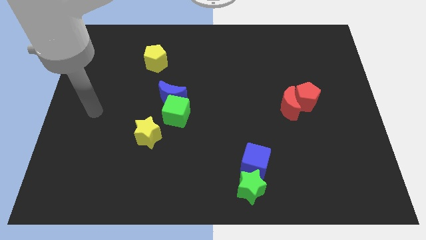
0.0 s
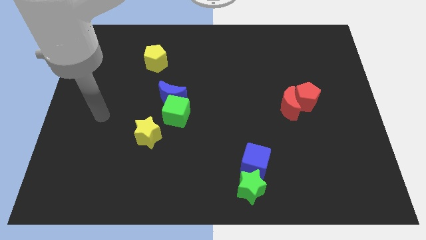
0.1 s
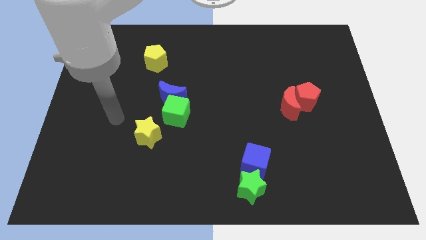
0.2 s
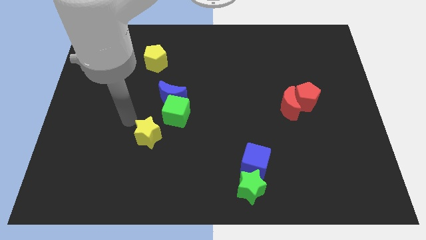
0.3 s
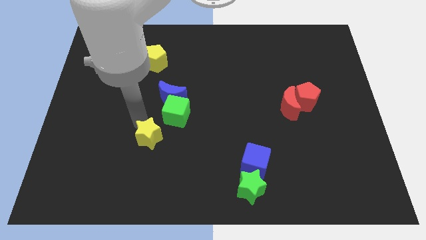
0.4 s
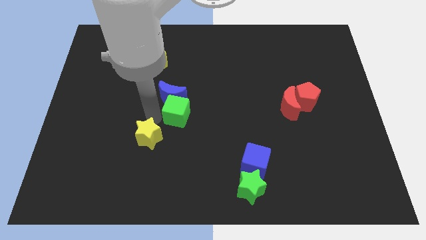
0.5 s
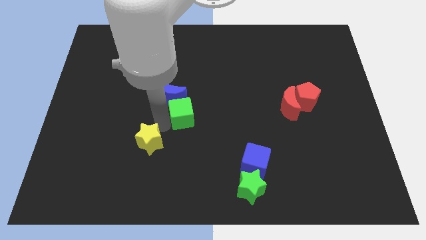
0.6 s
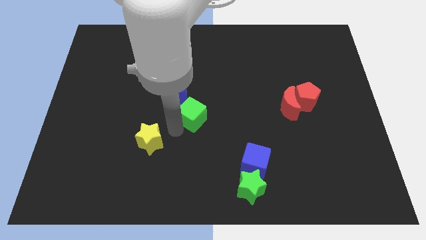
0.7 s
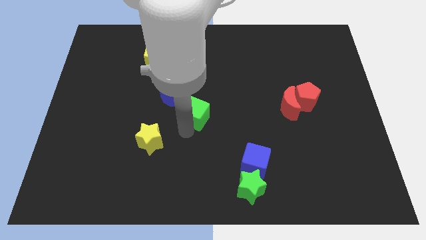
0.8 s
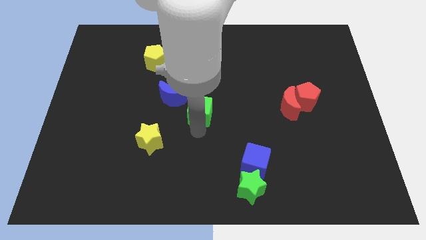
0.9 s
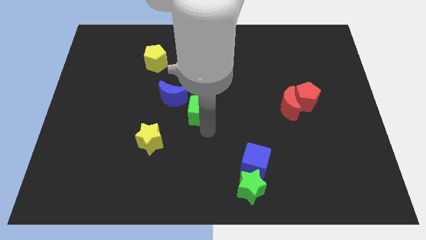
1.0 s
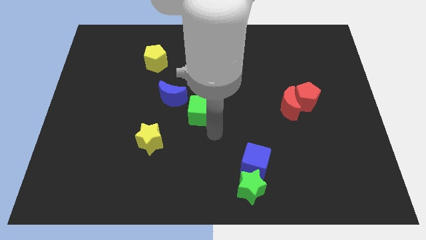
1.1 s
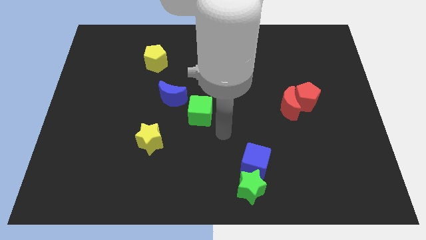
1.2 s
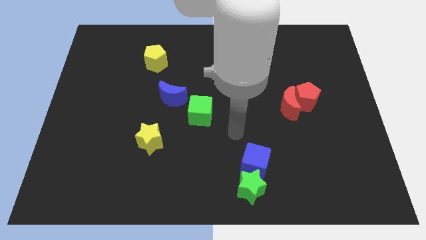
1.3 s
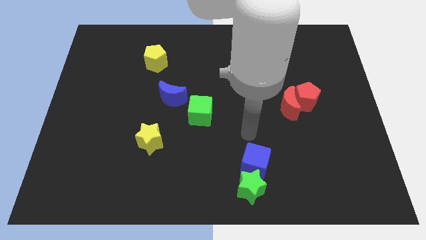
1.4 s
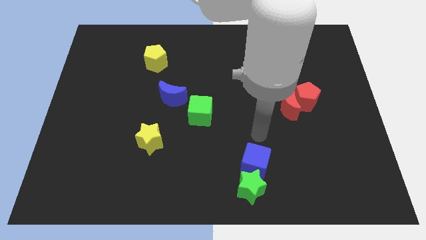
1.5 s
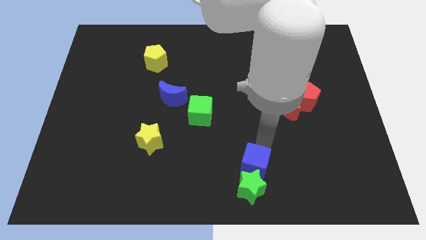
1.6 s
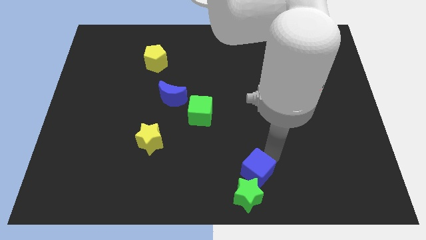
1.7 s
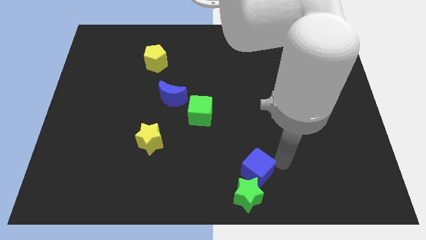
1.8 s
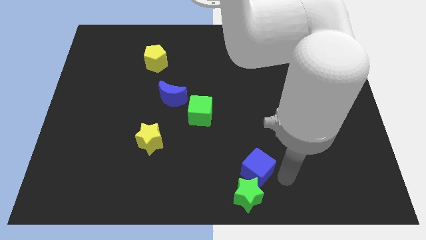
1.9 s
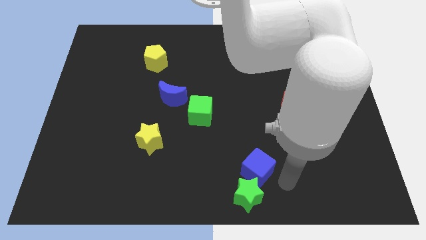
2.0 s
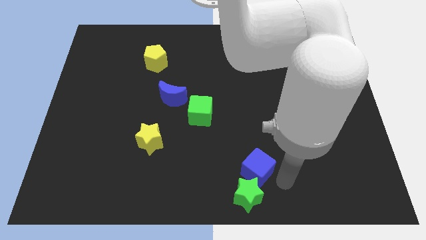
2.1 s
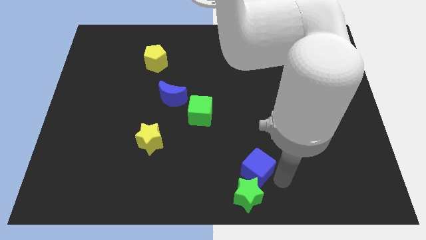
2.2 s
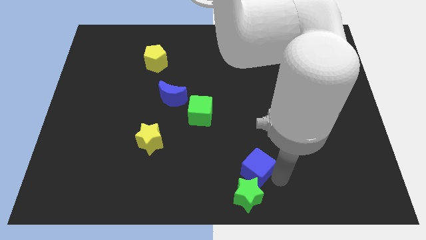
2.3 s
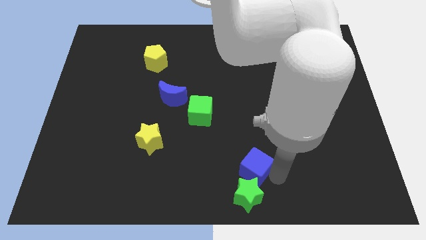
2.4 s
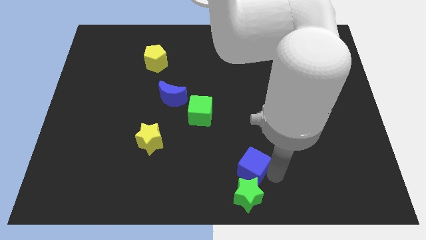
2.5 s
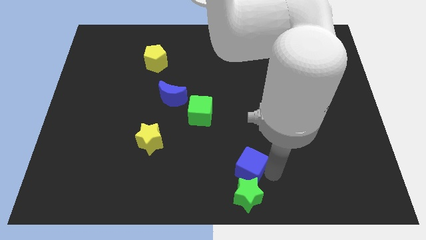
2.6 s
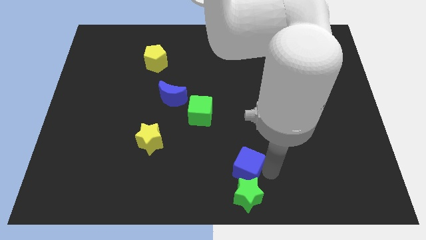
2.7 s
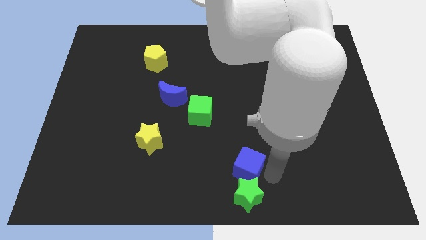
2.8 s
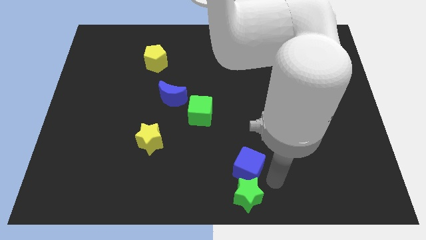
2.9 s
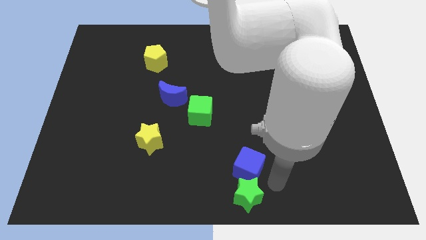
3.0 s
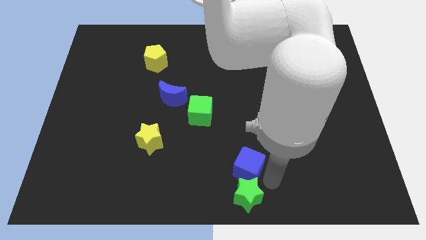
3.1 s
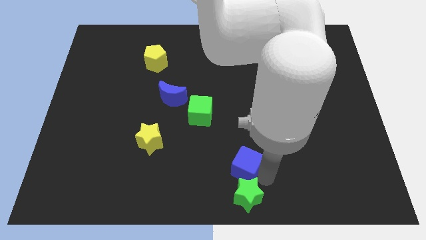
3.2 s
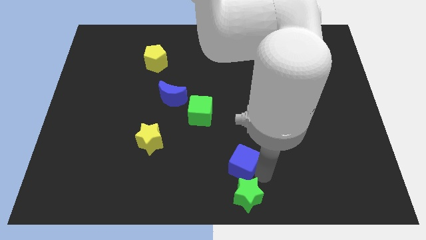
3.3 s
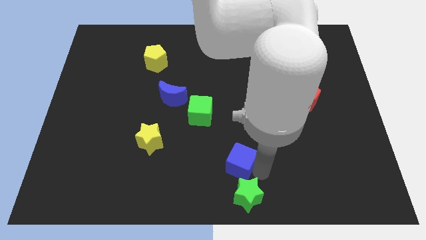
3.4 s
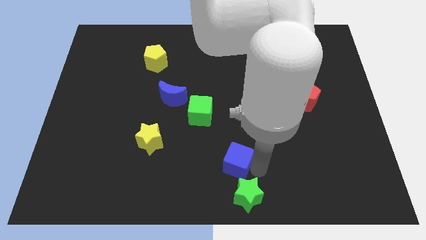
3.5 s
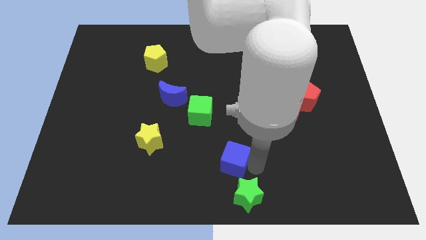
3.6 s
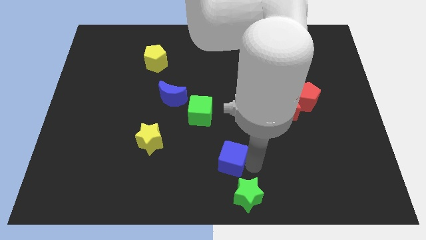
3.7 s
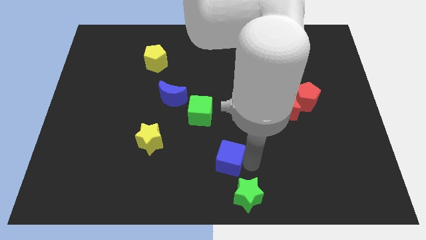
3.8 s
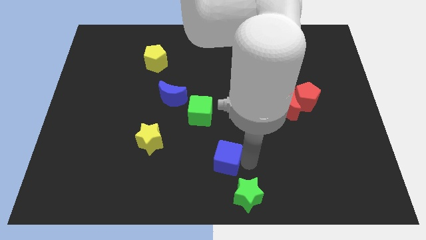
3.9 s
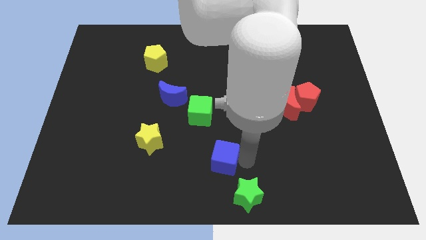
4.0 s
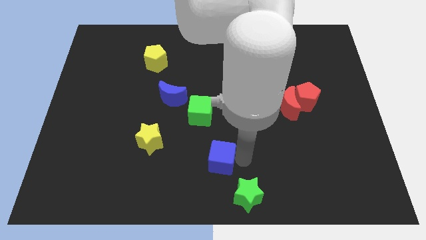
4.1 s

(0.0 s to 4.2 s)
push the blue cube slightly to the left

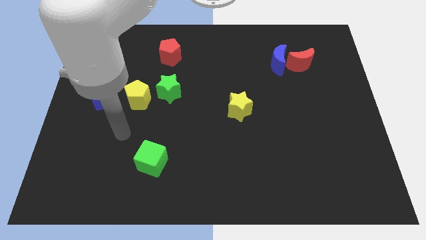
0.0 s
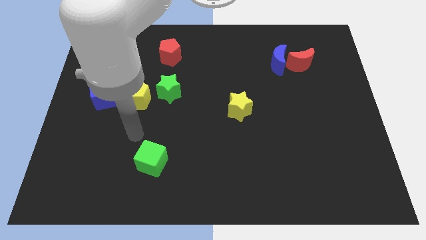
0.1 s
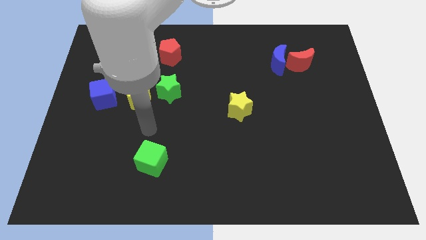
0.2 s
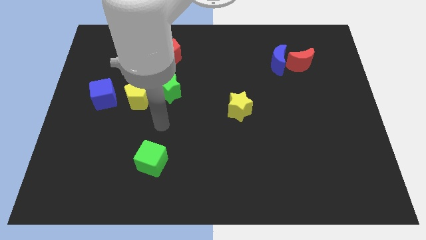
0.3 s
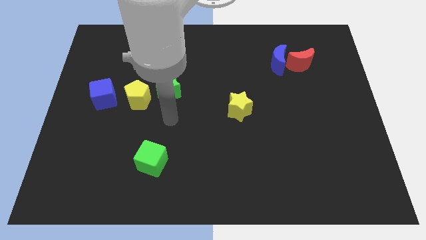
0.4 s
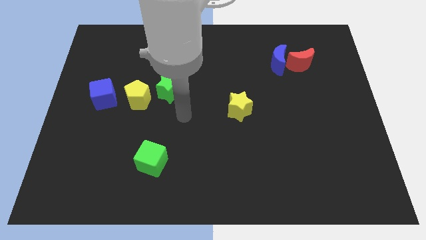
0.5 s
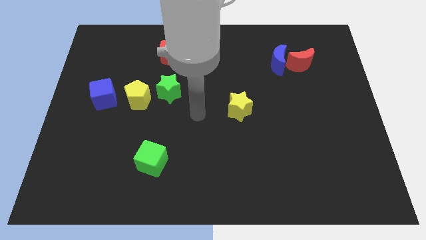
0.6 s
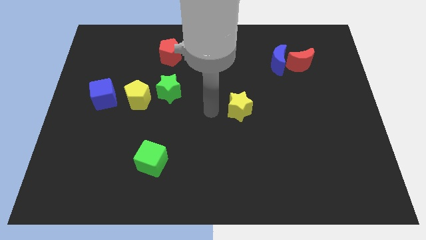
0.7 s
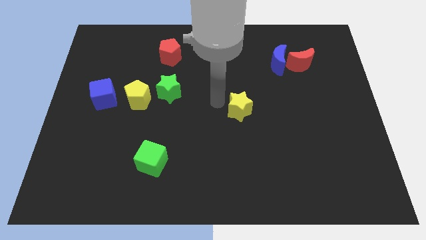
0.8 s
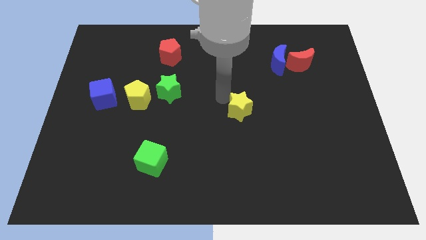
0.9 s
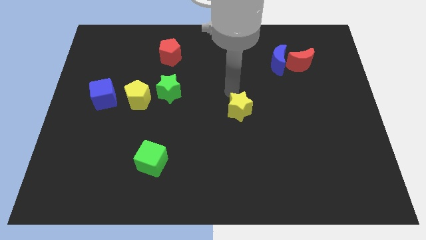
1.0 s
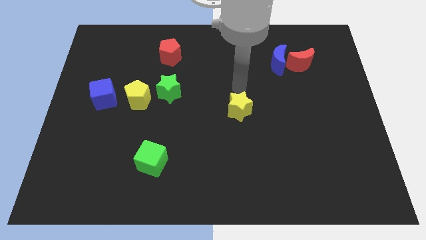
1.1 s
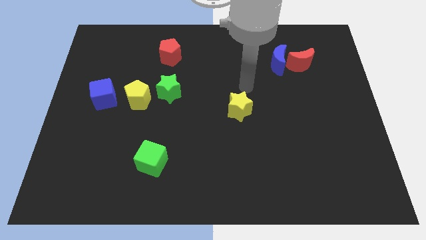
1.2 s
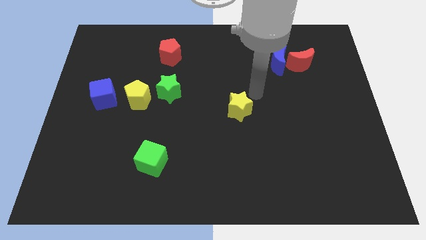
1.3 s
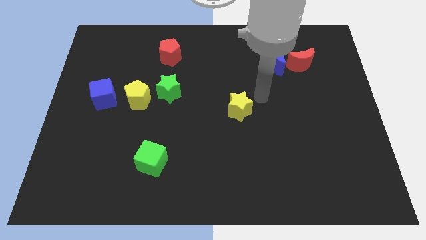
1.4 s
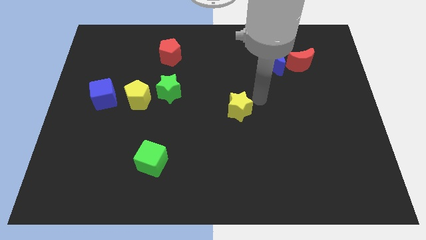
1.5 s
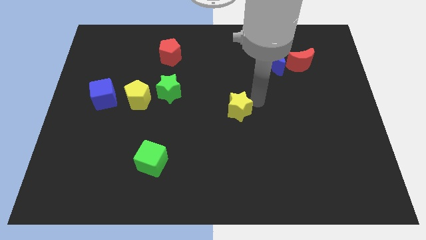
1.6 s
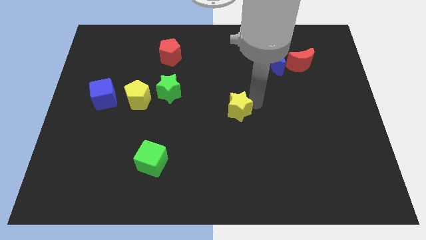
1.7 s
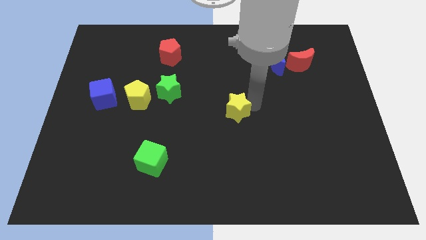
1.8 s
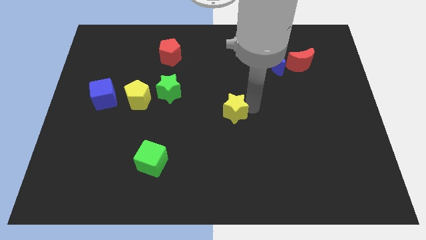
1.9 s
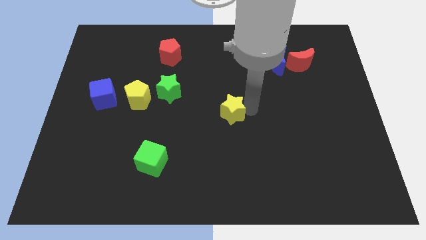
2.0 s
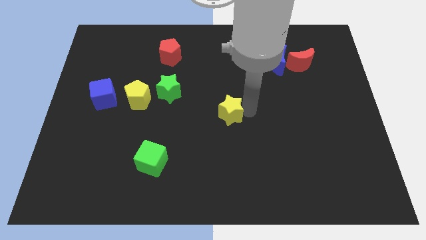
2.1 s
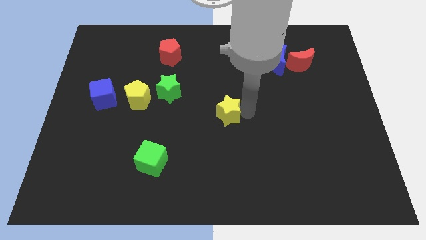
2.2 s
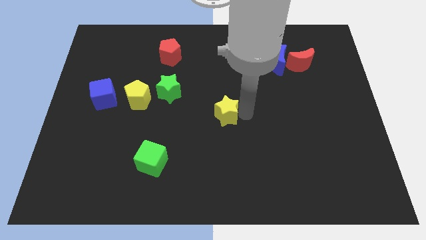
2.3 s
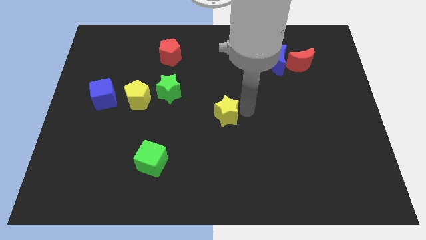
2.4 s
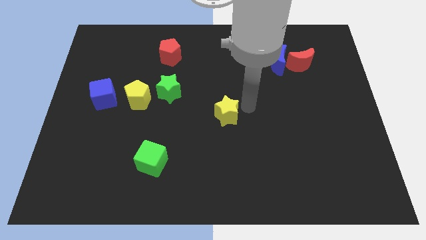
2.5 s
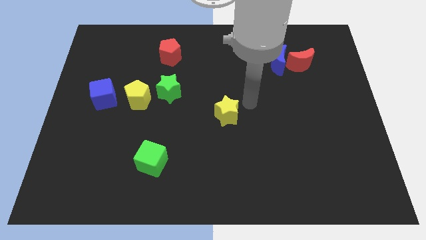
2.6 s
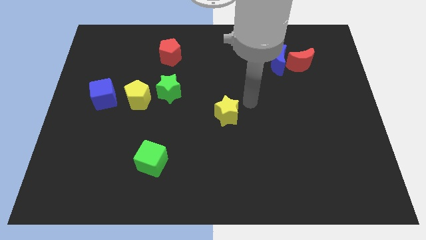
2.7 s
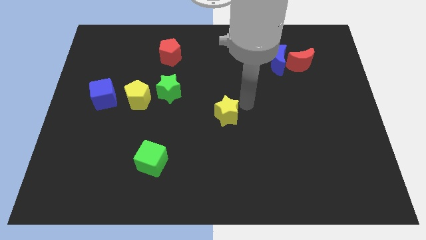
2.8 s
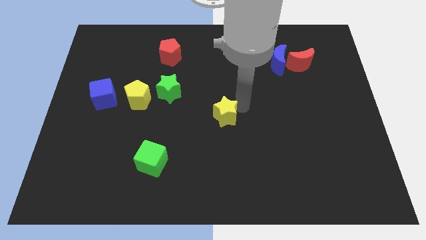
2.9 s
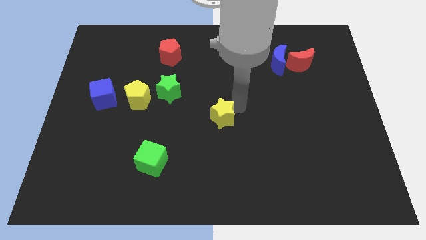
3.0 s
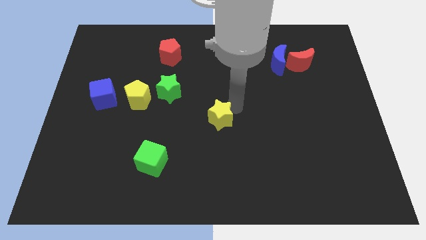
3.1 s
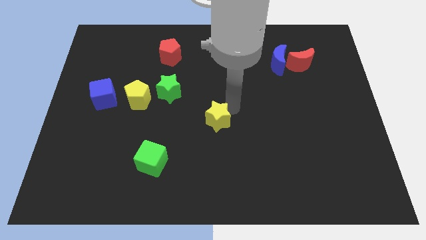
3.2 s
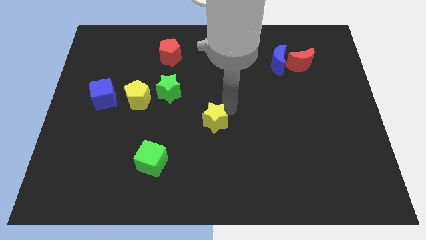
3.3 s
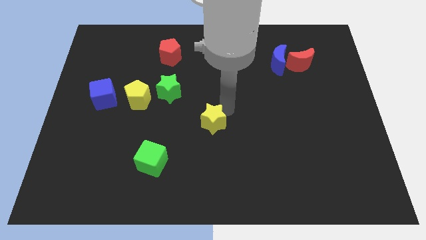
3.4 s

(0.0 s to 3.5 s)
move the yellow star diagonally downwards and left a little bit

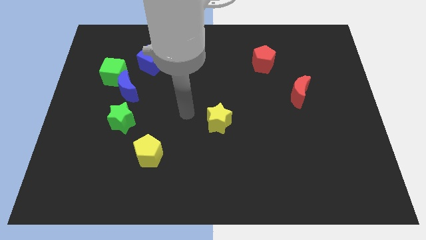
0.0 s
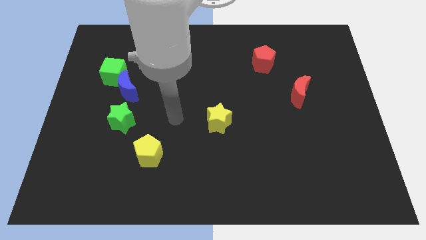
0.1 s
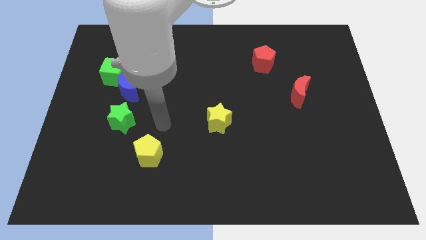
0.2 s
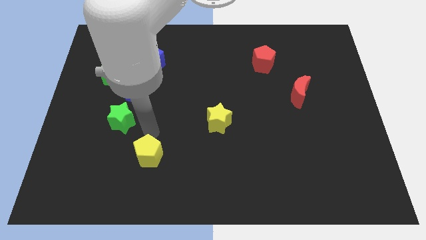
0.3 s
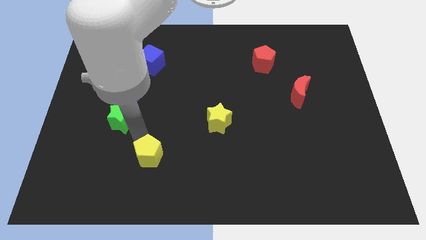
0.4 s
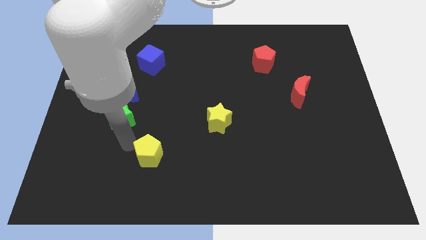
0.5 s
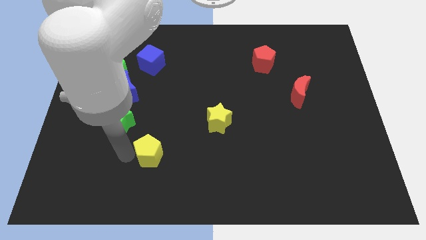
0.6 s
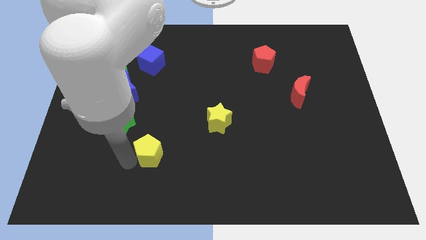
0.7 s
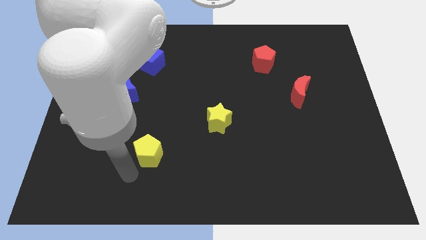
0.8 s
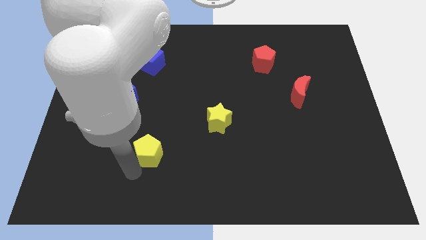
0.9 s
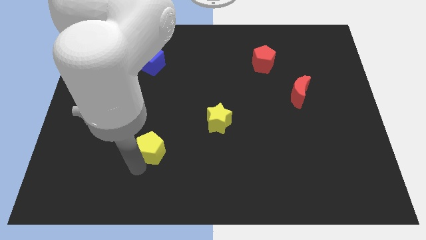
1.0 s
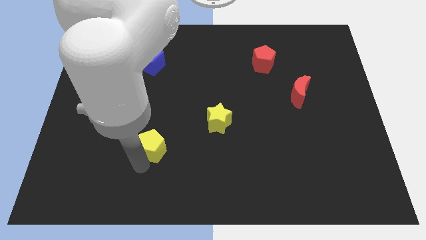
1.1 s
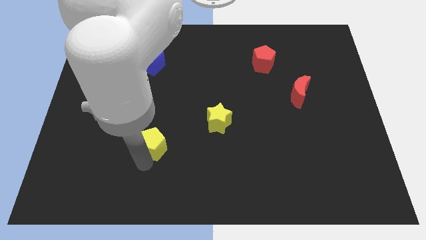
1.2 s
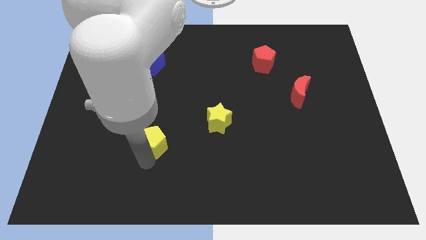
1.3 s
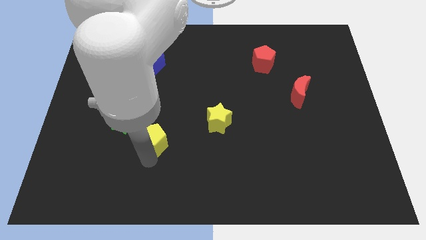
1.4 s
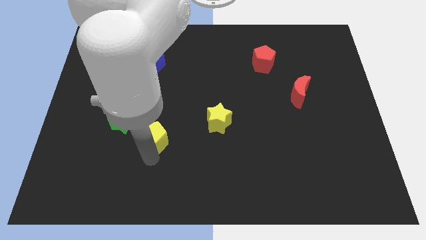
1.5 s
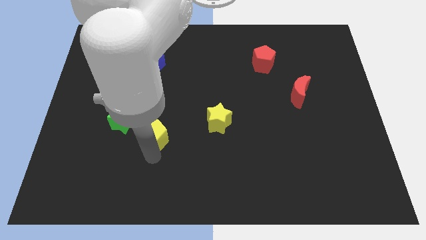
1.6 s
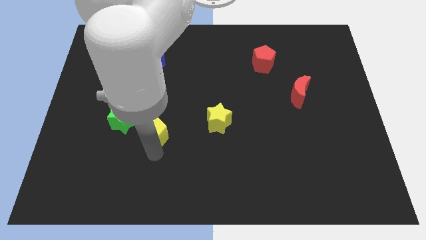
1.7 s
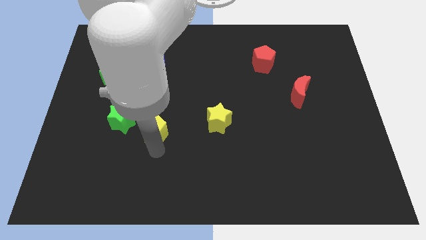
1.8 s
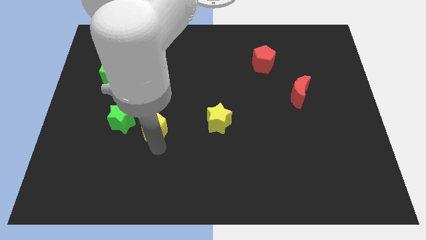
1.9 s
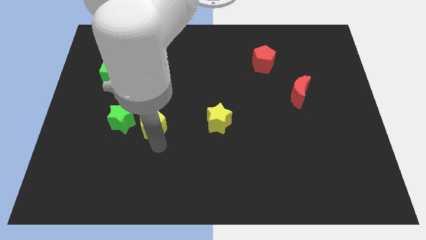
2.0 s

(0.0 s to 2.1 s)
move the yellow pentagon a little bit up
